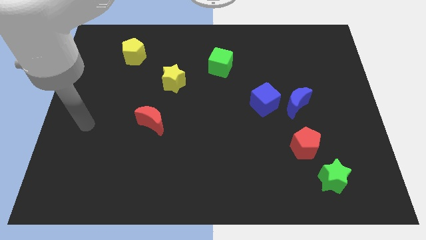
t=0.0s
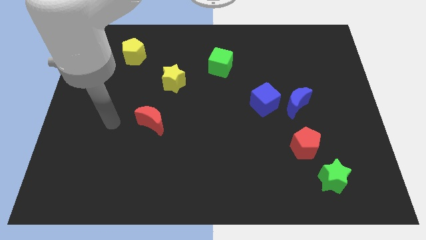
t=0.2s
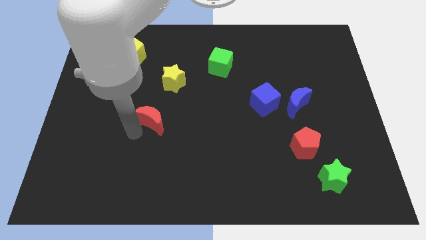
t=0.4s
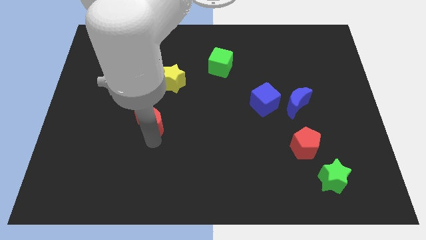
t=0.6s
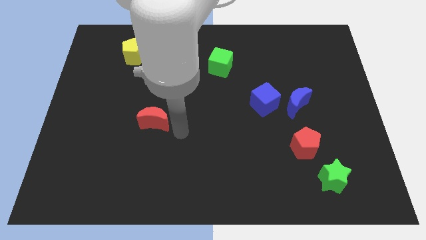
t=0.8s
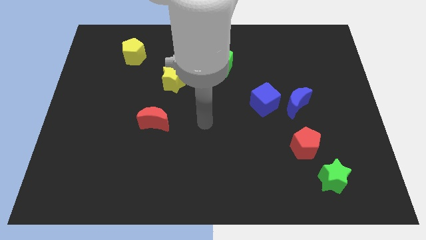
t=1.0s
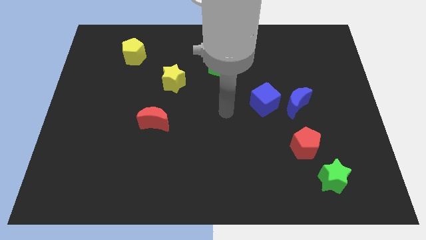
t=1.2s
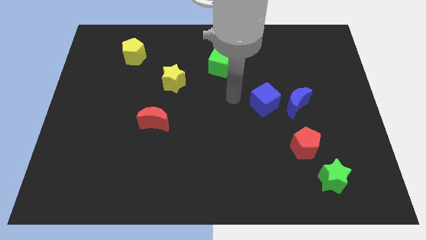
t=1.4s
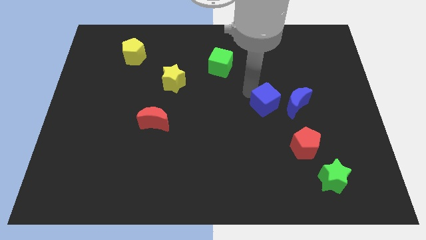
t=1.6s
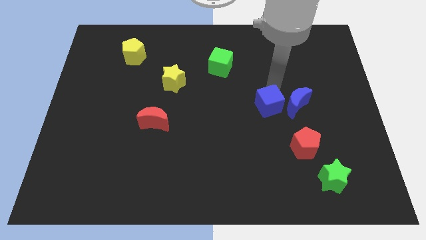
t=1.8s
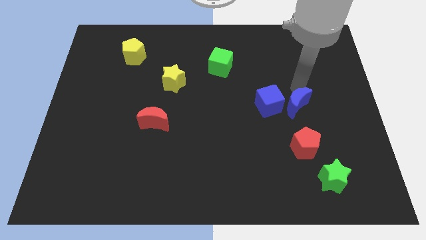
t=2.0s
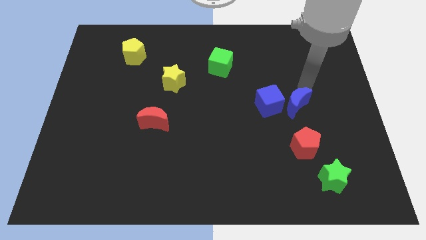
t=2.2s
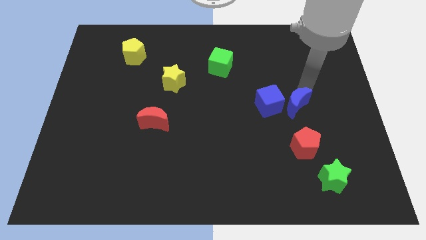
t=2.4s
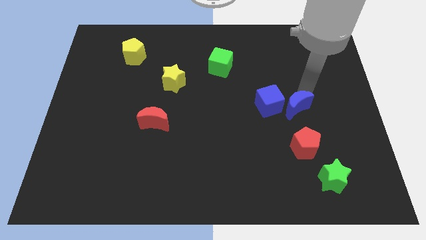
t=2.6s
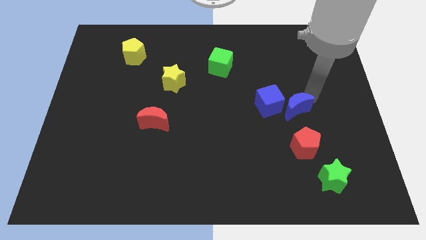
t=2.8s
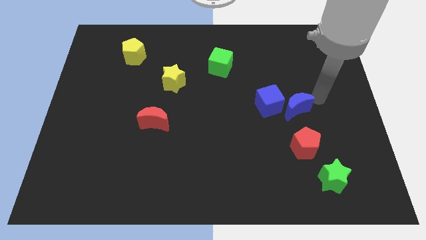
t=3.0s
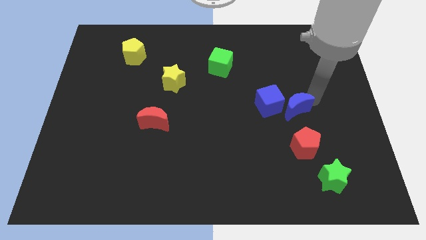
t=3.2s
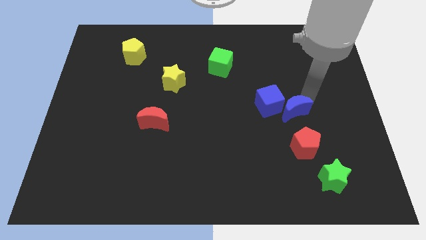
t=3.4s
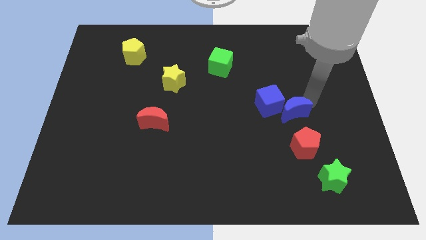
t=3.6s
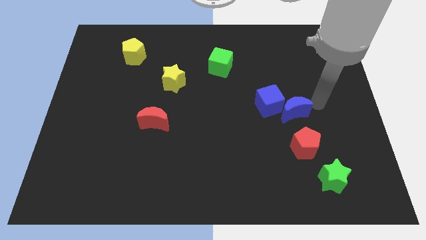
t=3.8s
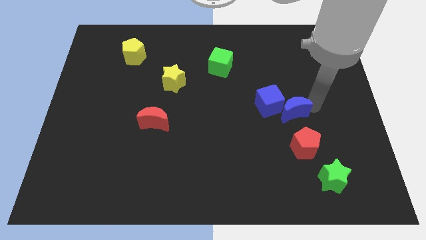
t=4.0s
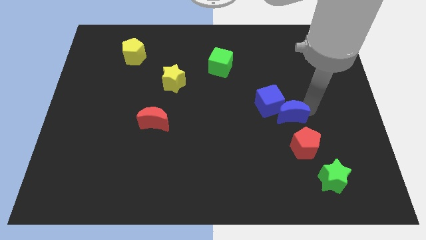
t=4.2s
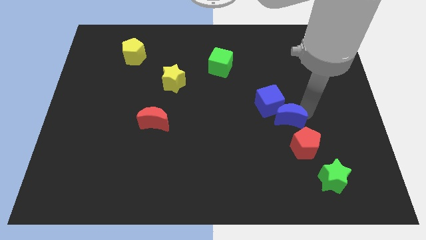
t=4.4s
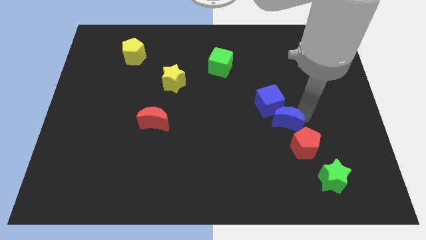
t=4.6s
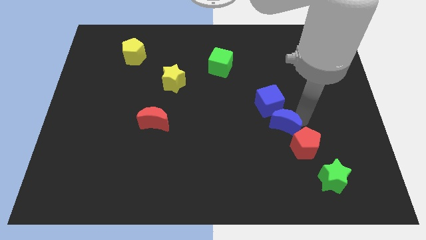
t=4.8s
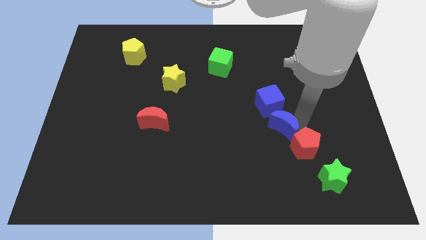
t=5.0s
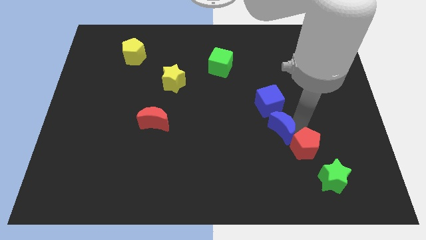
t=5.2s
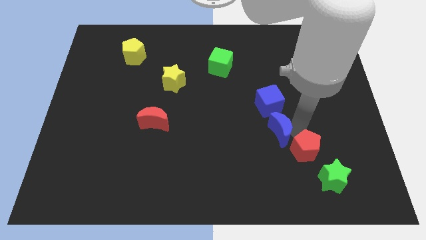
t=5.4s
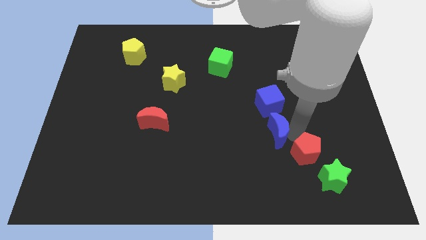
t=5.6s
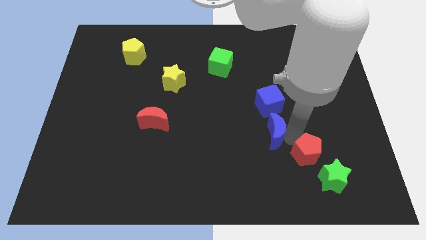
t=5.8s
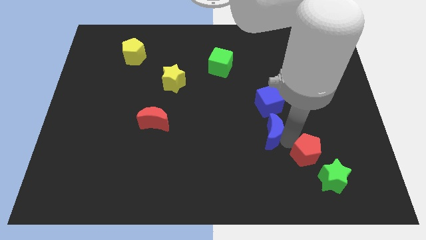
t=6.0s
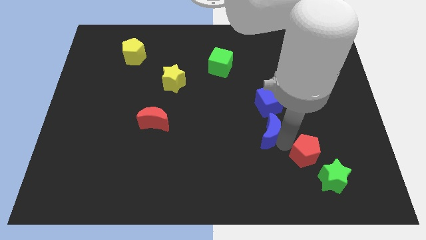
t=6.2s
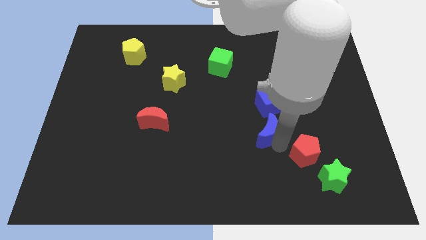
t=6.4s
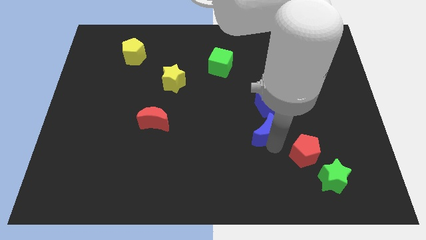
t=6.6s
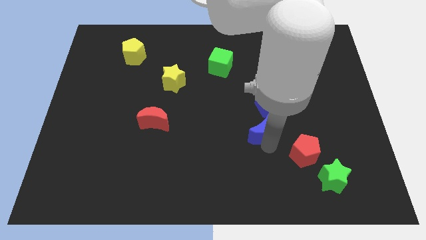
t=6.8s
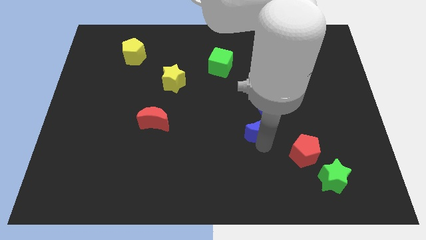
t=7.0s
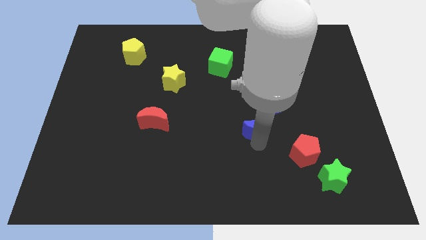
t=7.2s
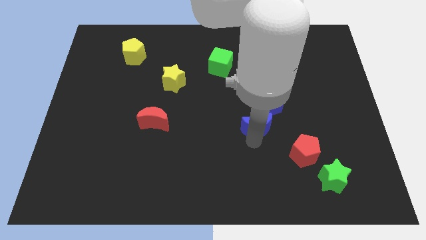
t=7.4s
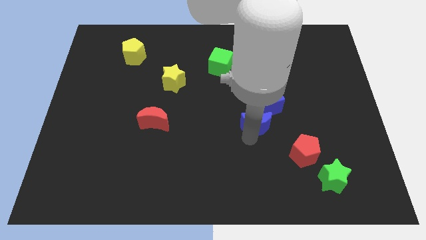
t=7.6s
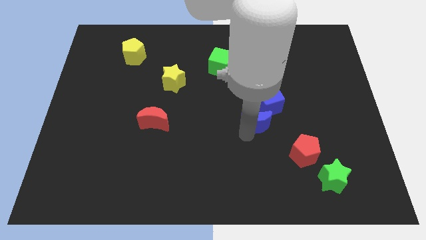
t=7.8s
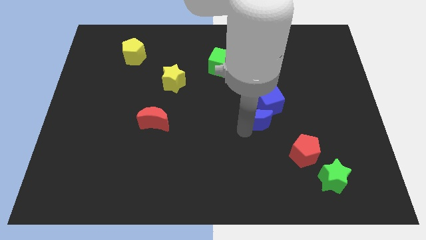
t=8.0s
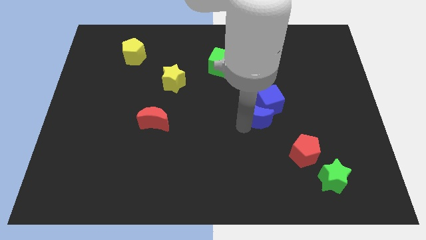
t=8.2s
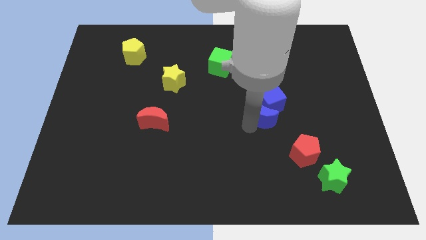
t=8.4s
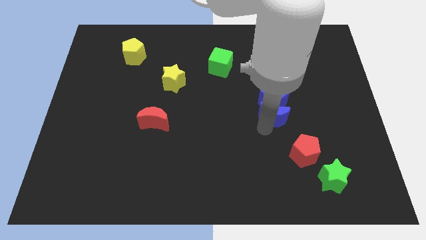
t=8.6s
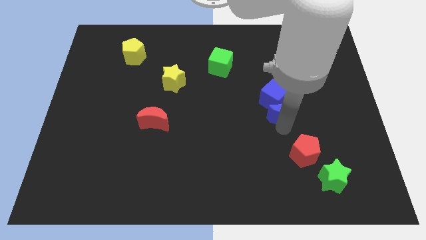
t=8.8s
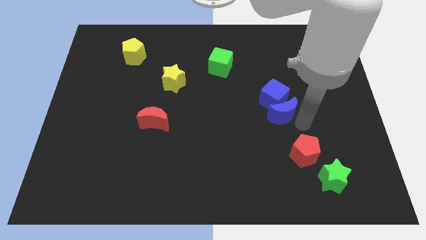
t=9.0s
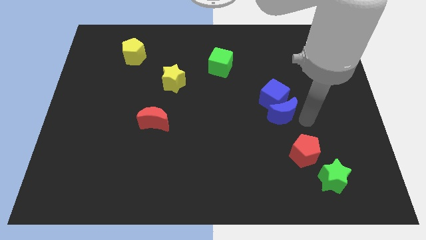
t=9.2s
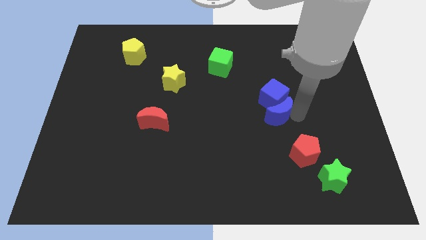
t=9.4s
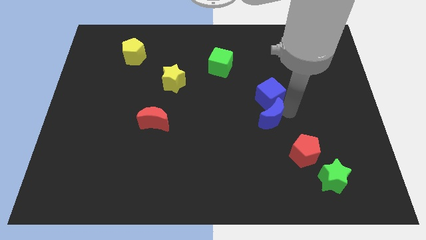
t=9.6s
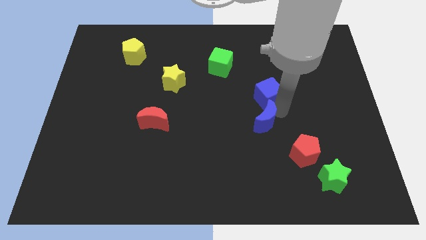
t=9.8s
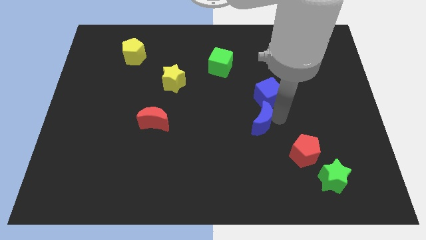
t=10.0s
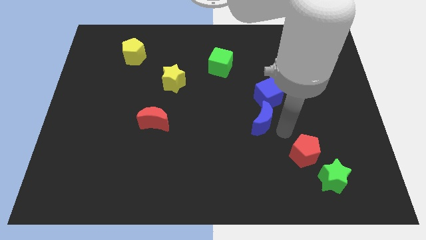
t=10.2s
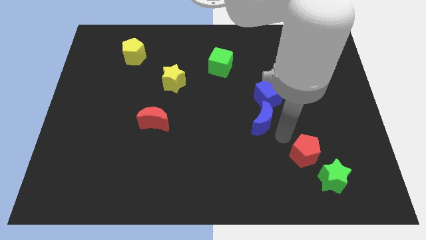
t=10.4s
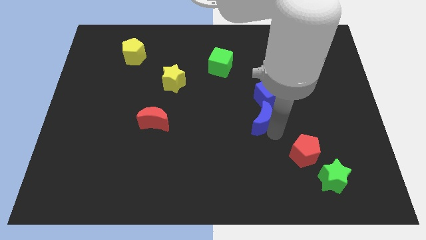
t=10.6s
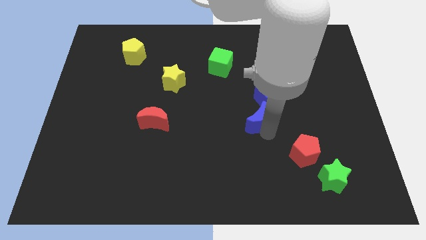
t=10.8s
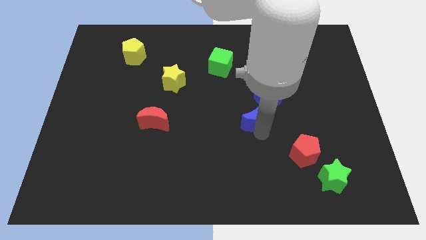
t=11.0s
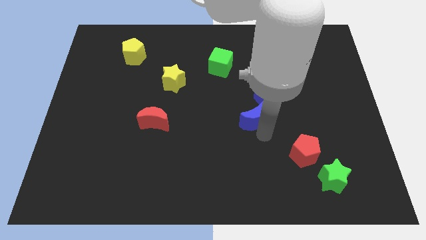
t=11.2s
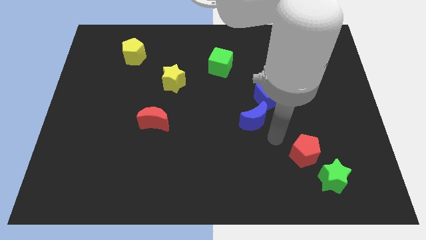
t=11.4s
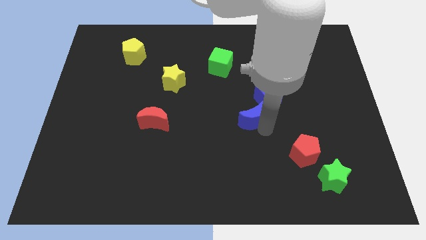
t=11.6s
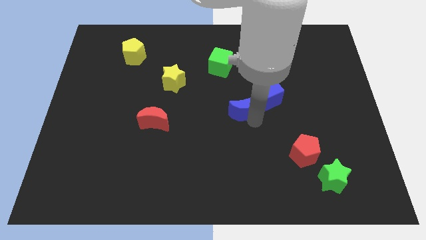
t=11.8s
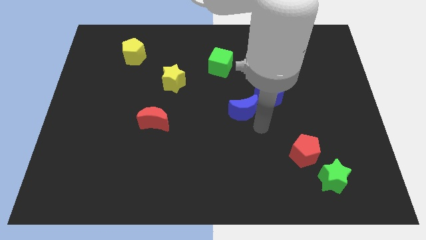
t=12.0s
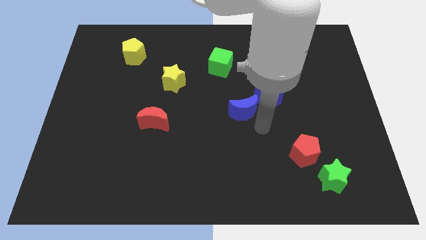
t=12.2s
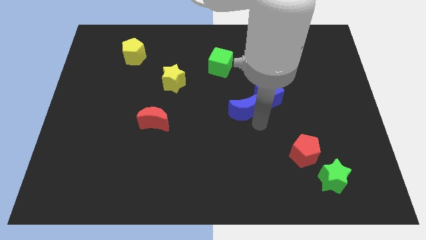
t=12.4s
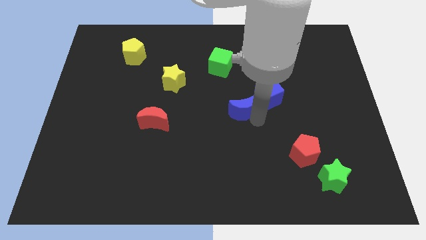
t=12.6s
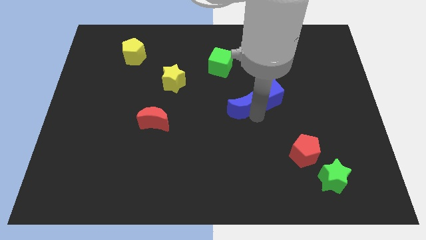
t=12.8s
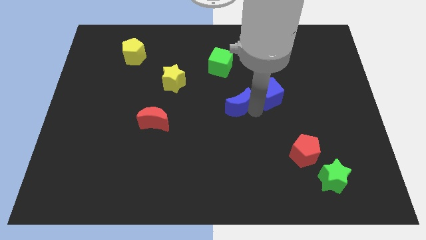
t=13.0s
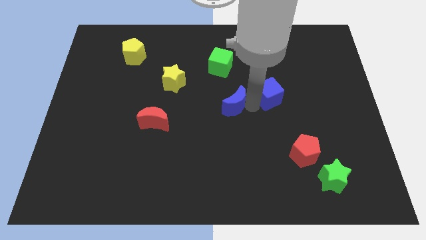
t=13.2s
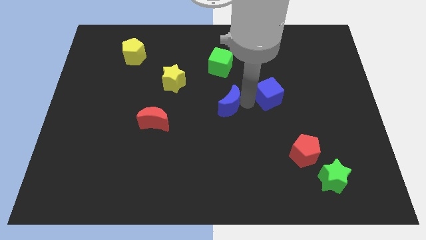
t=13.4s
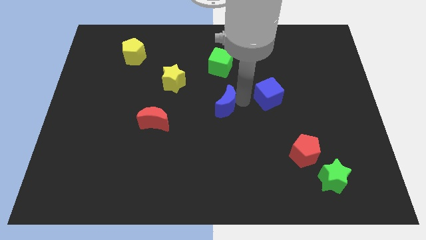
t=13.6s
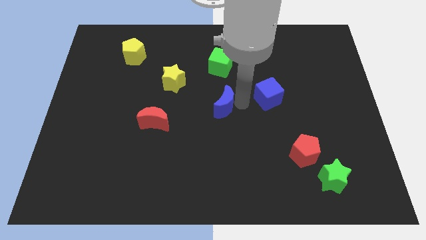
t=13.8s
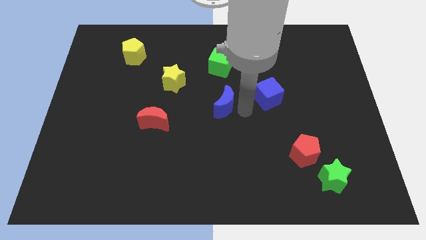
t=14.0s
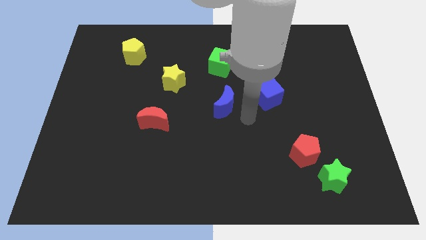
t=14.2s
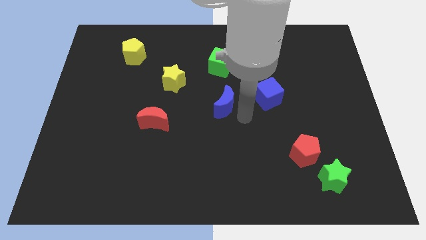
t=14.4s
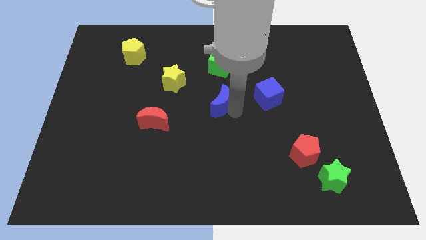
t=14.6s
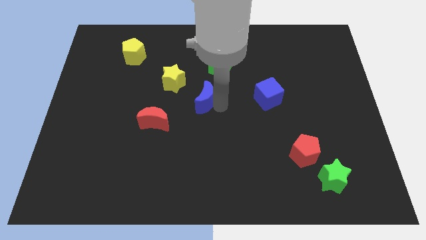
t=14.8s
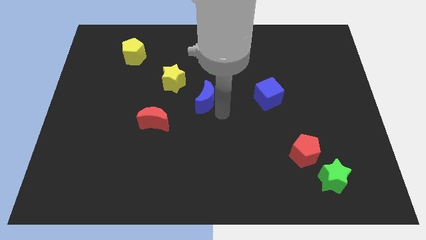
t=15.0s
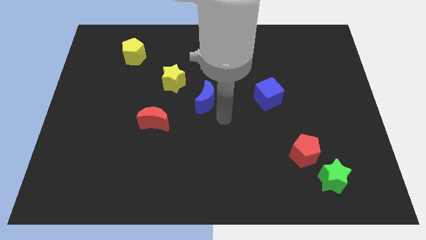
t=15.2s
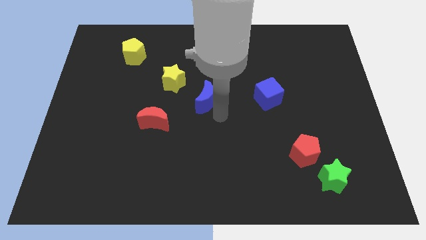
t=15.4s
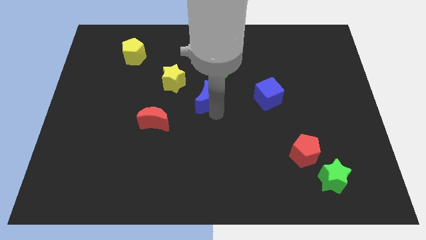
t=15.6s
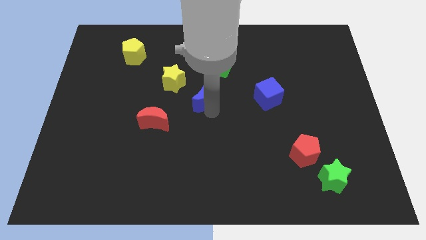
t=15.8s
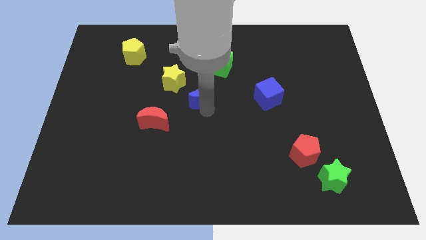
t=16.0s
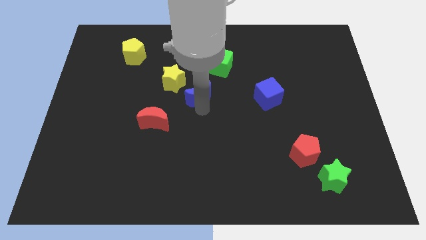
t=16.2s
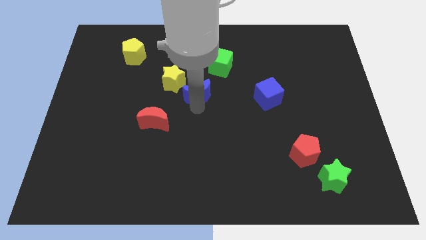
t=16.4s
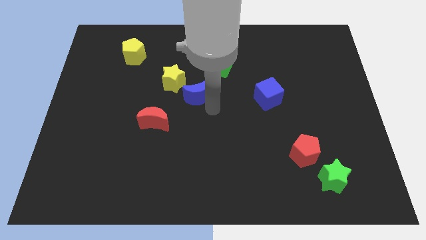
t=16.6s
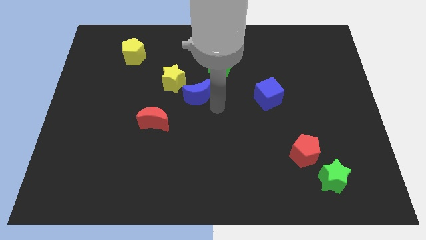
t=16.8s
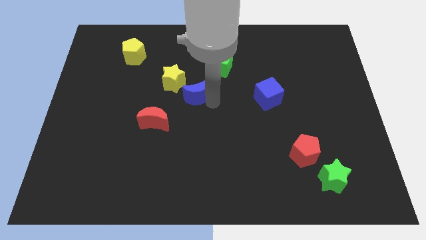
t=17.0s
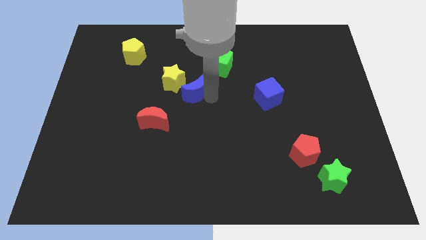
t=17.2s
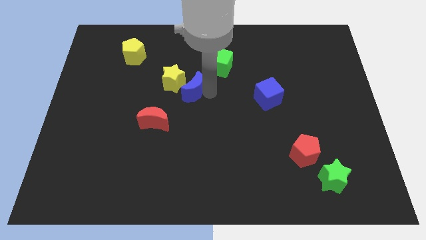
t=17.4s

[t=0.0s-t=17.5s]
move the blue moon towards the yellow star
